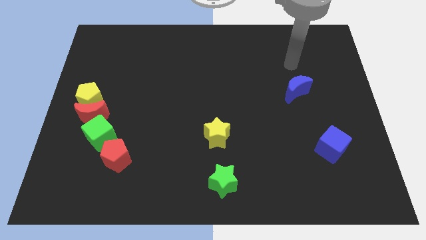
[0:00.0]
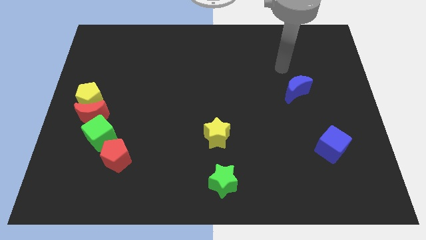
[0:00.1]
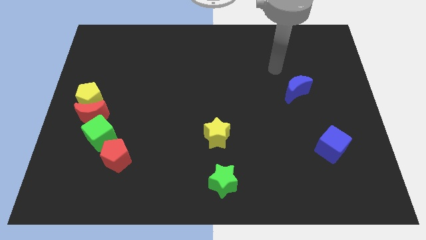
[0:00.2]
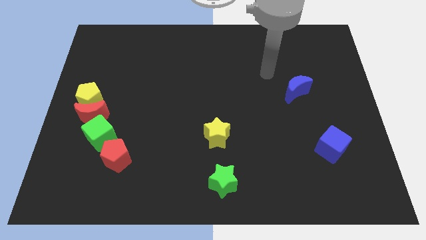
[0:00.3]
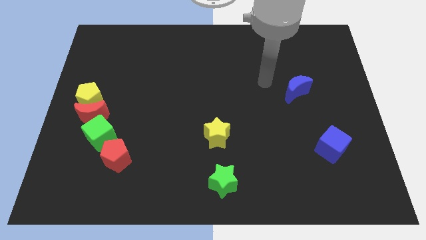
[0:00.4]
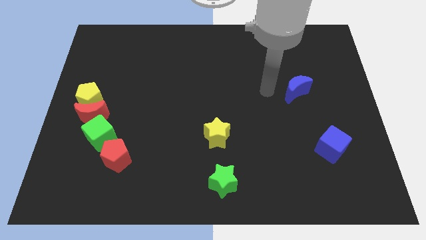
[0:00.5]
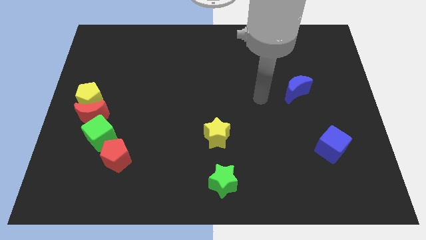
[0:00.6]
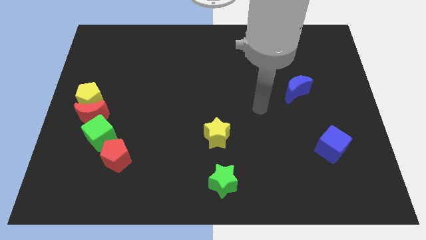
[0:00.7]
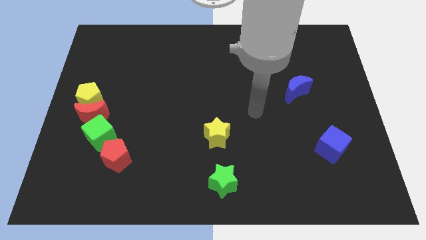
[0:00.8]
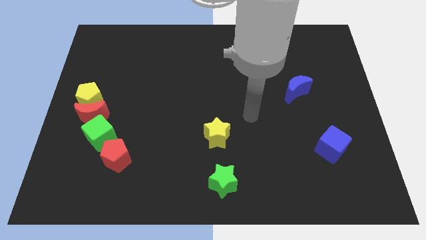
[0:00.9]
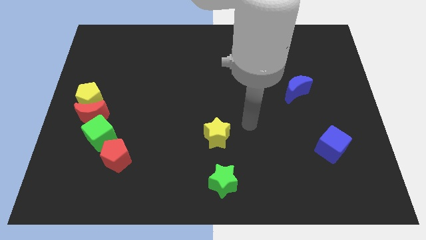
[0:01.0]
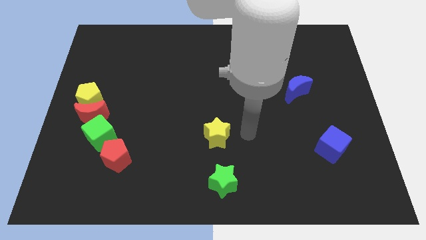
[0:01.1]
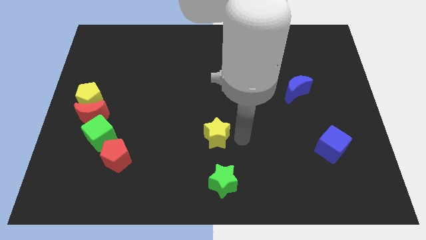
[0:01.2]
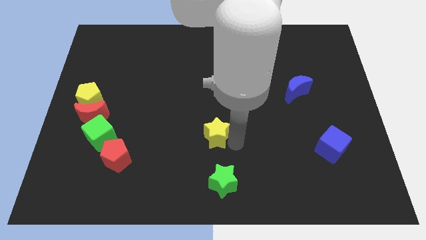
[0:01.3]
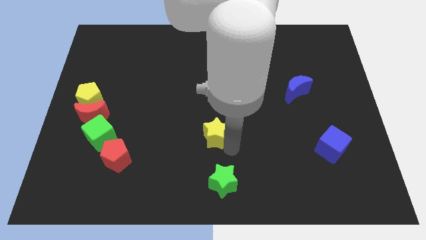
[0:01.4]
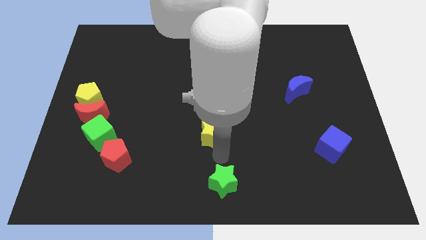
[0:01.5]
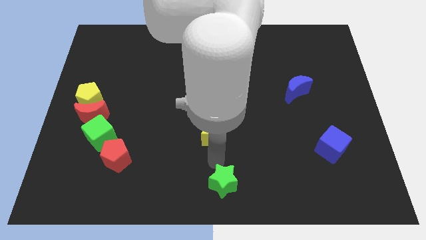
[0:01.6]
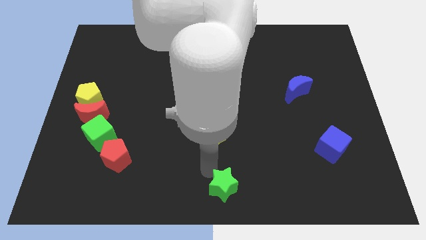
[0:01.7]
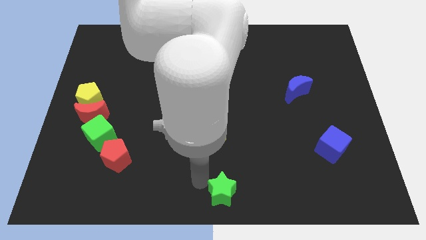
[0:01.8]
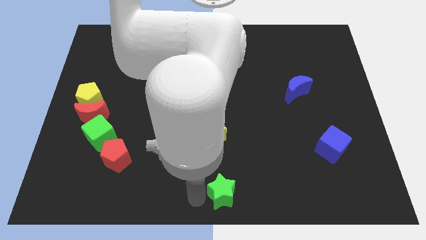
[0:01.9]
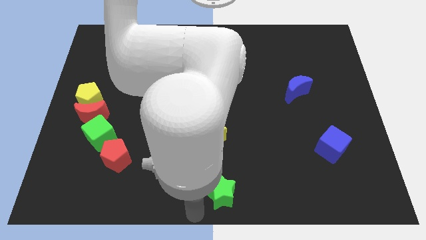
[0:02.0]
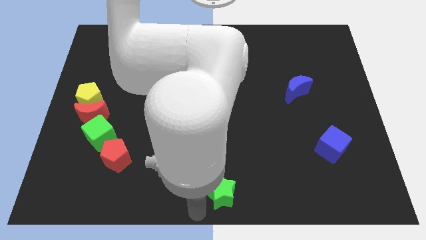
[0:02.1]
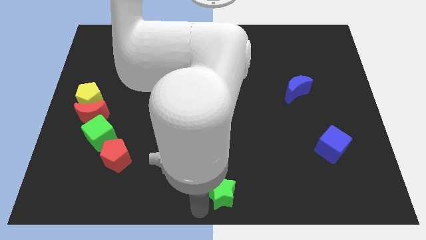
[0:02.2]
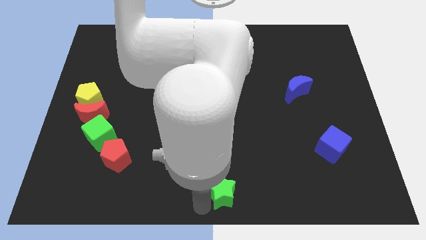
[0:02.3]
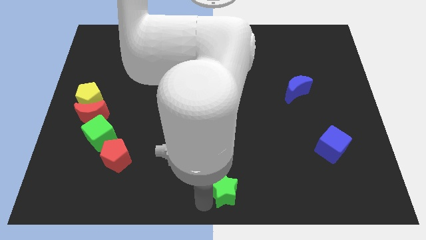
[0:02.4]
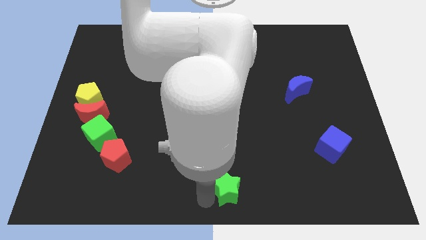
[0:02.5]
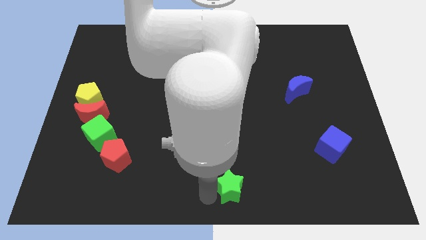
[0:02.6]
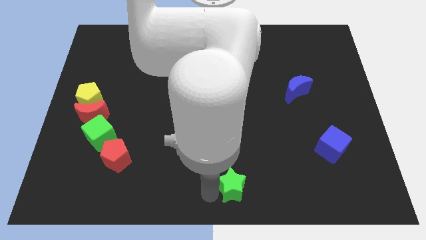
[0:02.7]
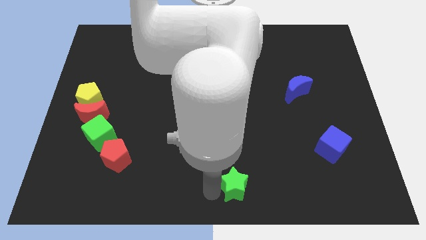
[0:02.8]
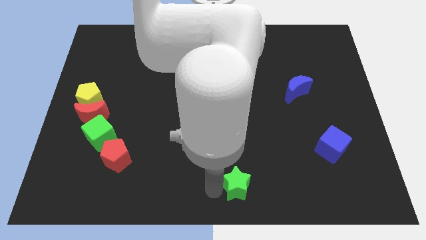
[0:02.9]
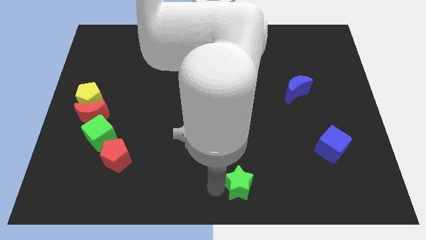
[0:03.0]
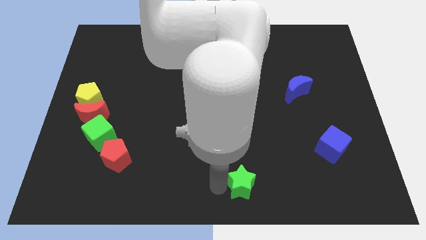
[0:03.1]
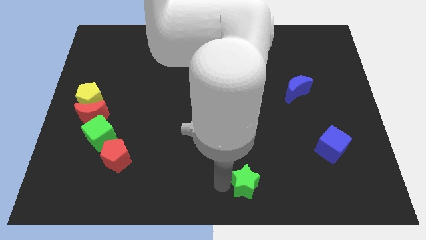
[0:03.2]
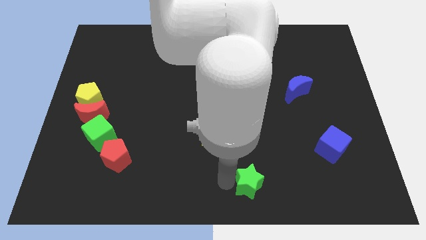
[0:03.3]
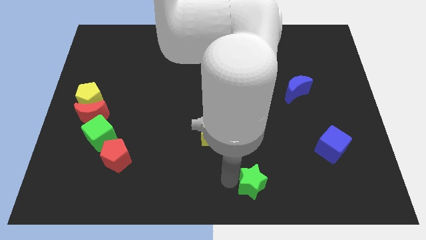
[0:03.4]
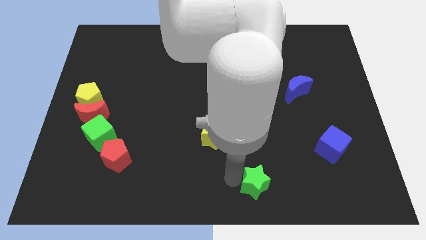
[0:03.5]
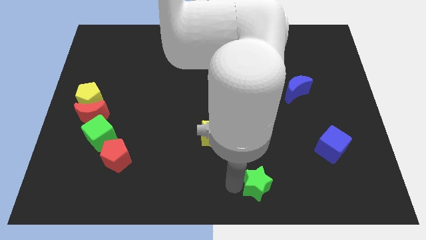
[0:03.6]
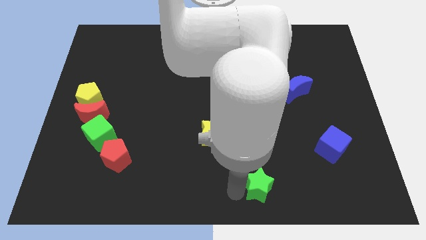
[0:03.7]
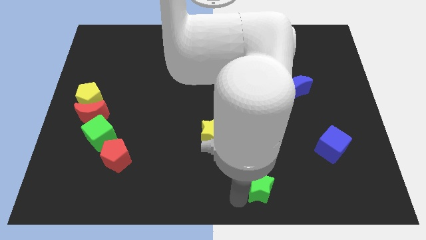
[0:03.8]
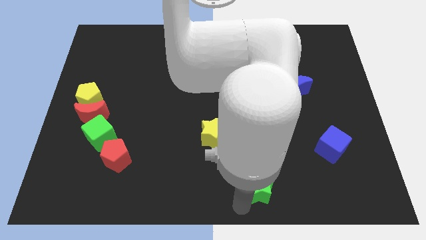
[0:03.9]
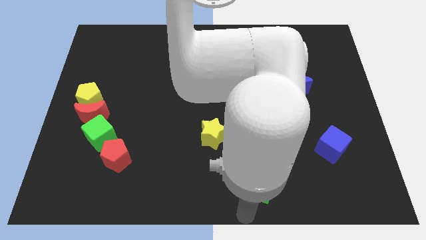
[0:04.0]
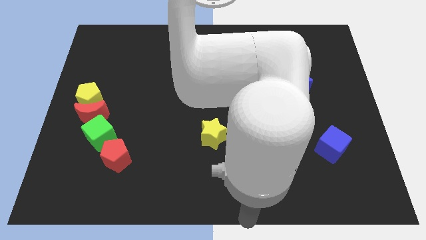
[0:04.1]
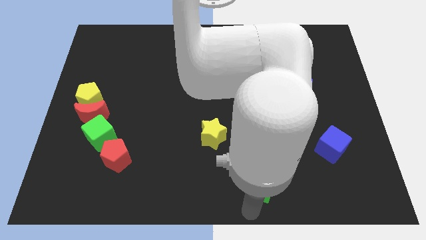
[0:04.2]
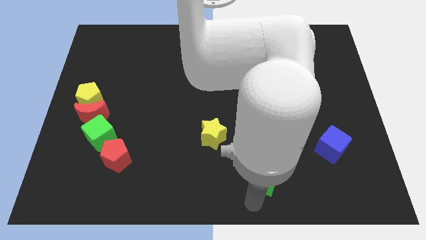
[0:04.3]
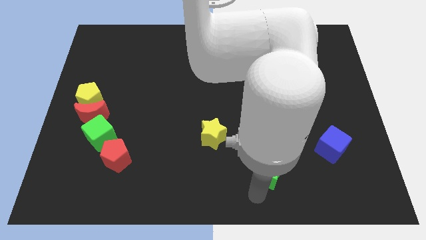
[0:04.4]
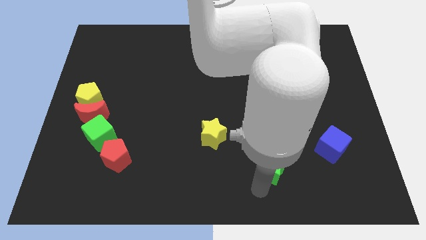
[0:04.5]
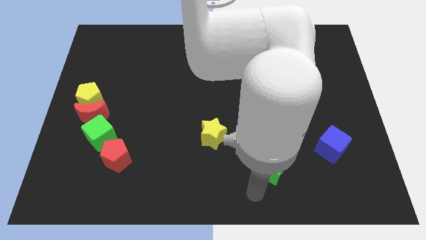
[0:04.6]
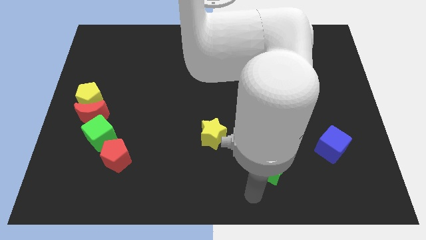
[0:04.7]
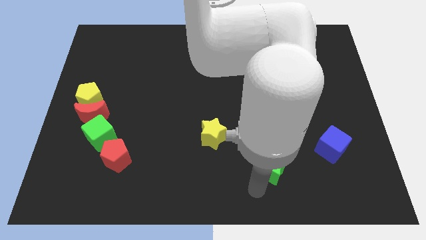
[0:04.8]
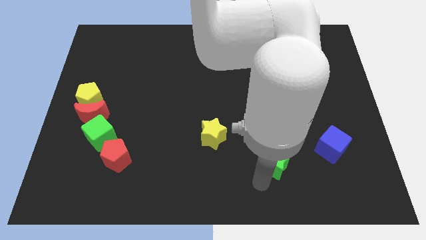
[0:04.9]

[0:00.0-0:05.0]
move the green star just left of the blue cube

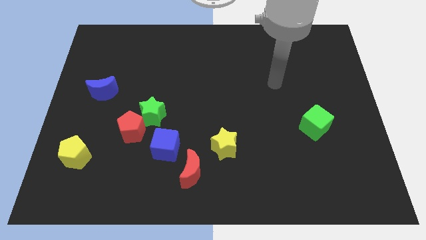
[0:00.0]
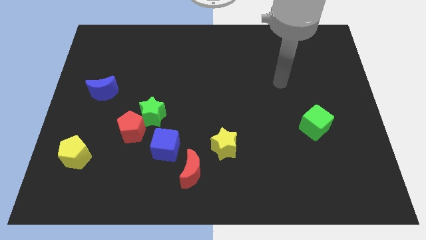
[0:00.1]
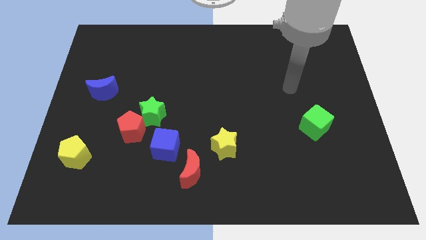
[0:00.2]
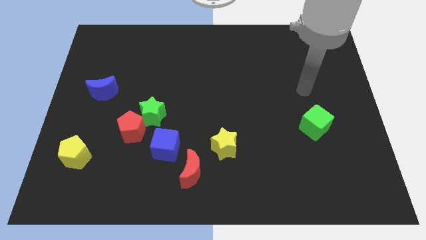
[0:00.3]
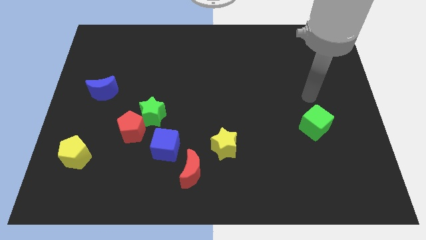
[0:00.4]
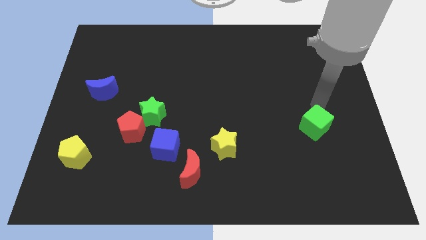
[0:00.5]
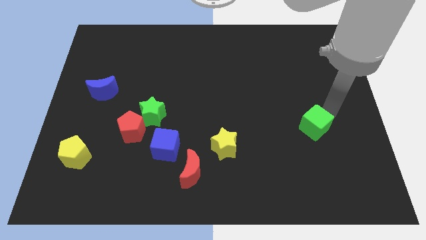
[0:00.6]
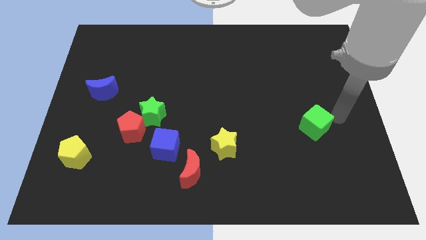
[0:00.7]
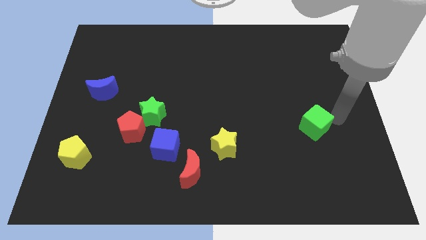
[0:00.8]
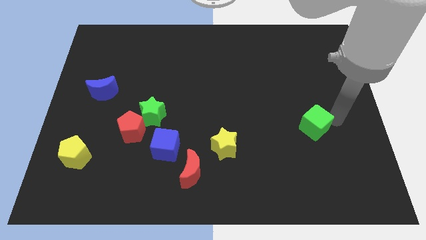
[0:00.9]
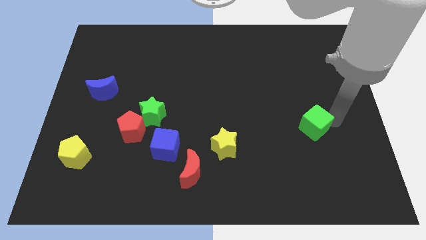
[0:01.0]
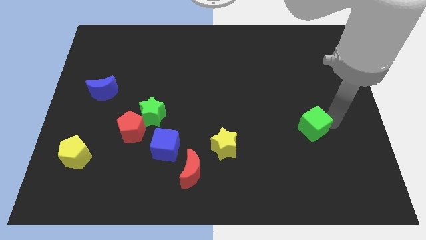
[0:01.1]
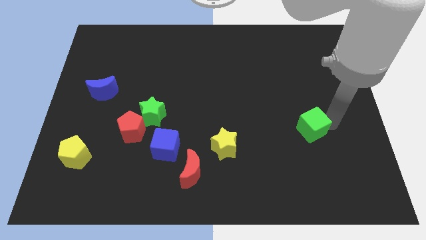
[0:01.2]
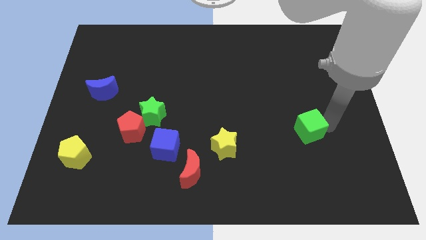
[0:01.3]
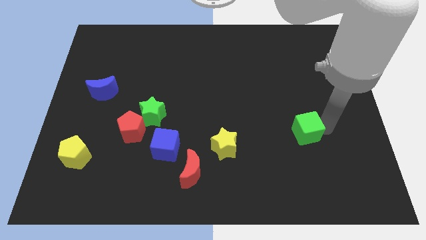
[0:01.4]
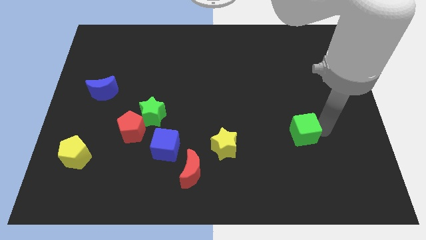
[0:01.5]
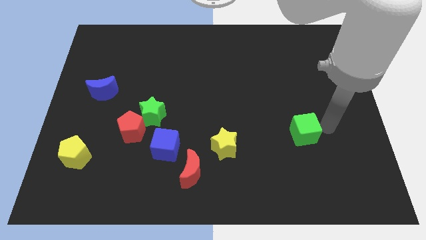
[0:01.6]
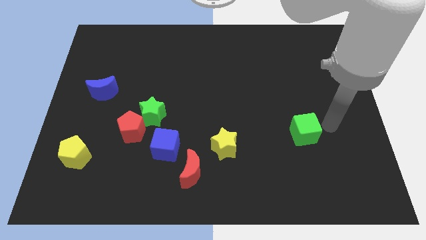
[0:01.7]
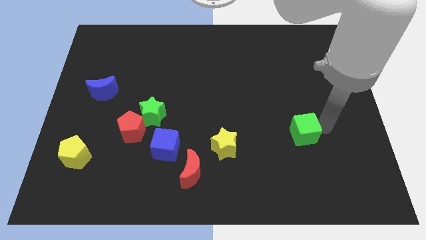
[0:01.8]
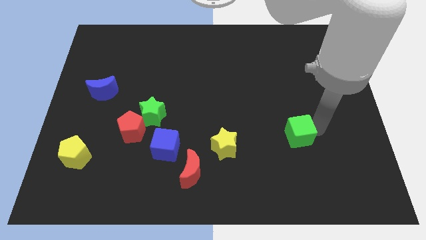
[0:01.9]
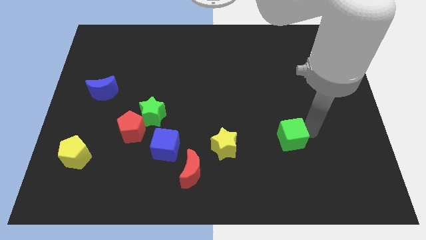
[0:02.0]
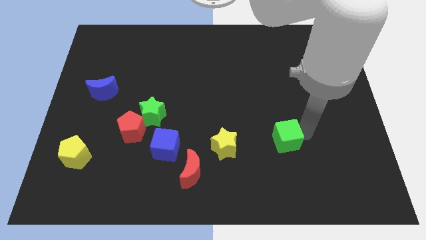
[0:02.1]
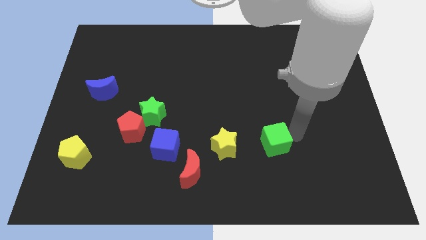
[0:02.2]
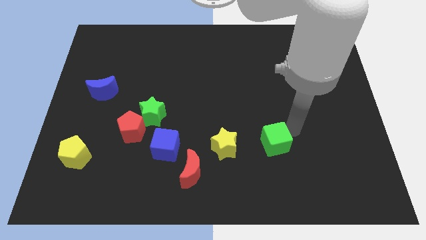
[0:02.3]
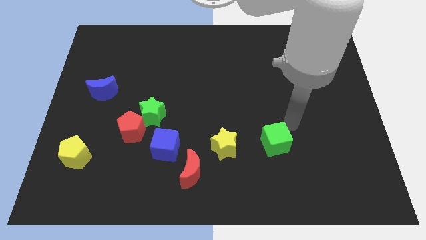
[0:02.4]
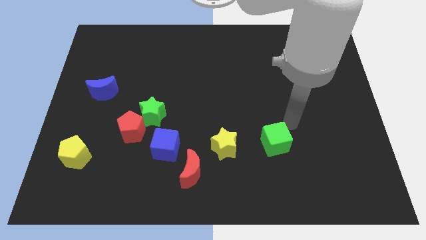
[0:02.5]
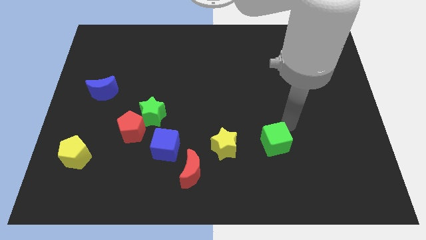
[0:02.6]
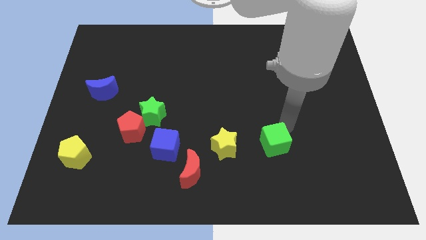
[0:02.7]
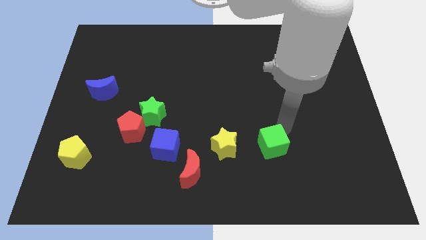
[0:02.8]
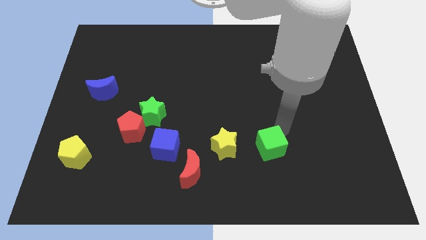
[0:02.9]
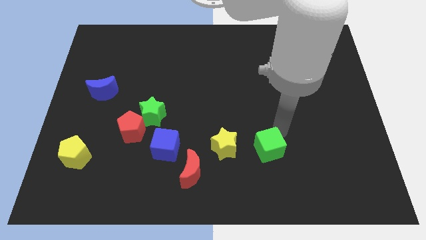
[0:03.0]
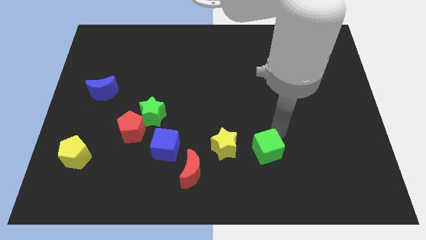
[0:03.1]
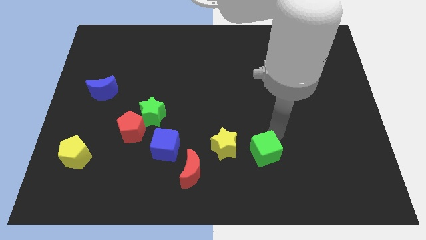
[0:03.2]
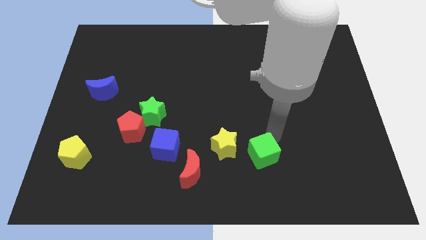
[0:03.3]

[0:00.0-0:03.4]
move the green cube to the bottom right of the yellow star
